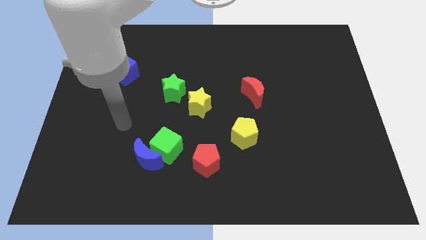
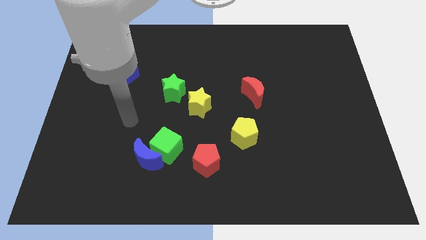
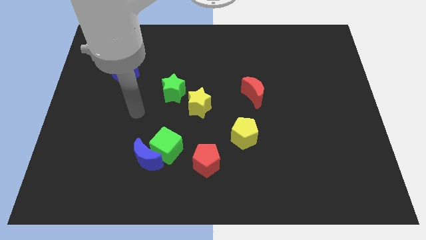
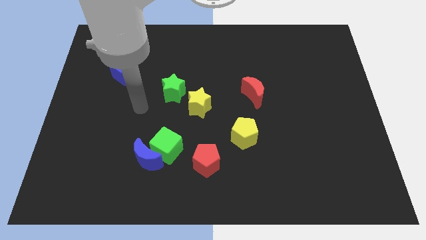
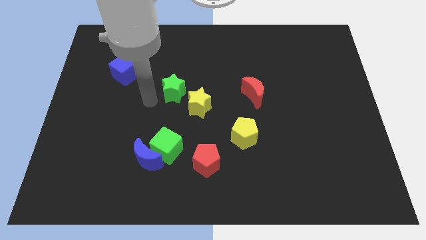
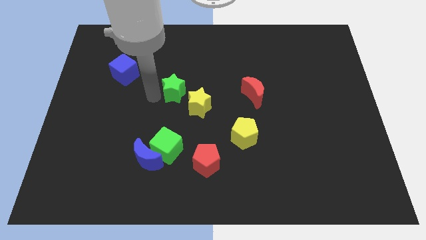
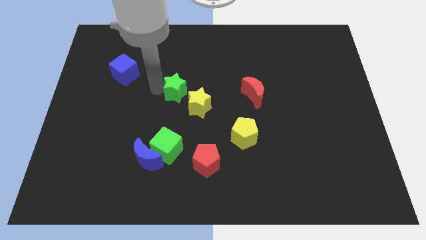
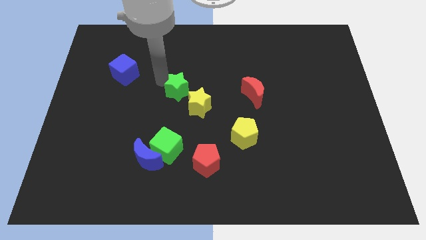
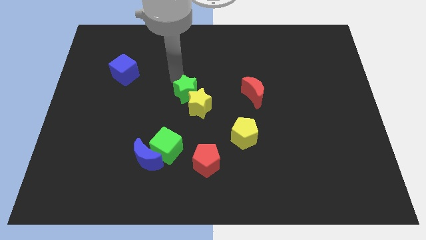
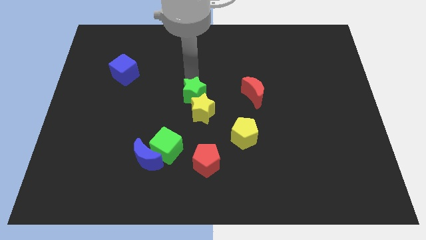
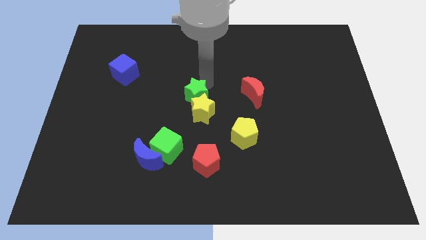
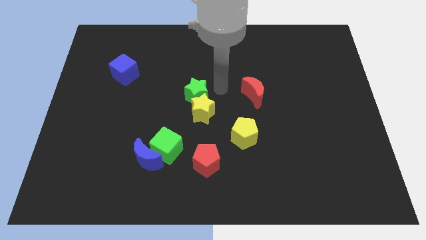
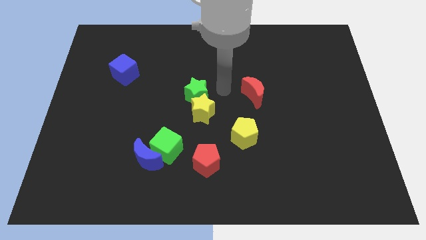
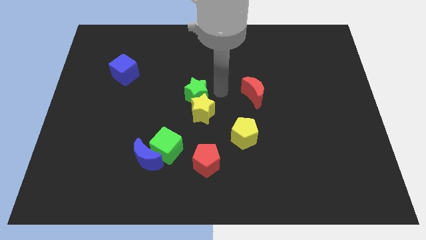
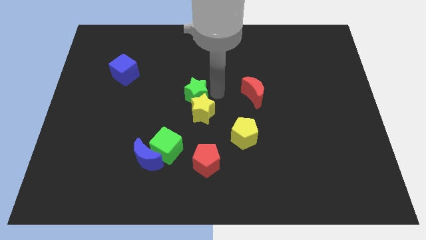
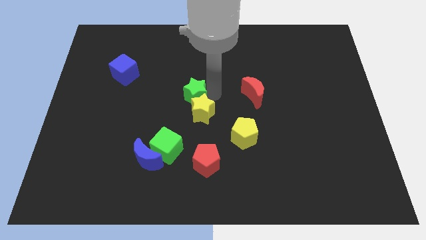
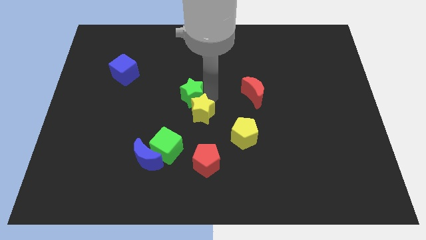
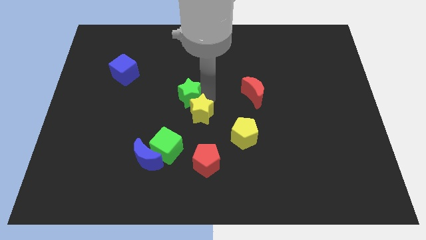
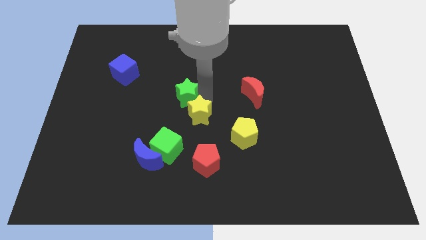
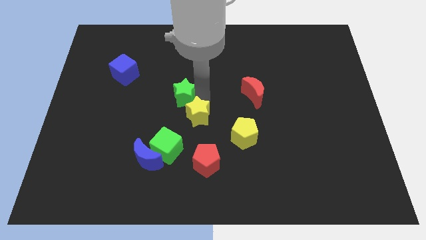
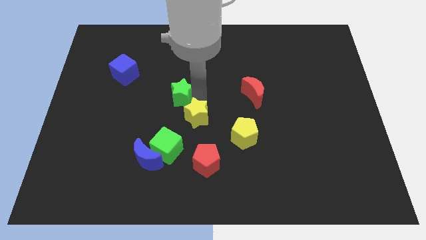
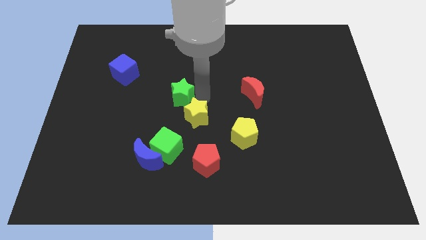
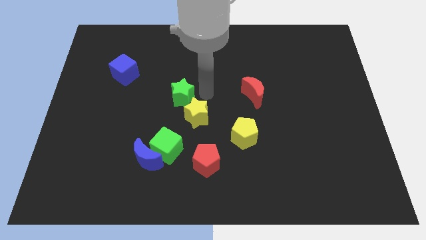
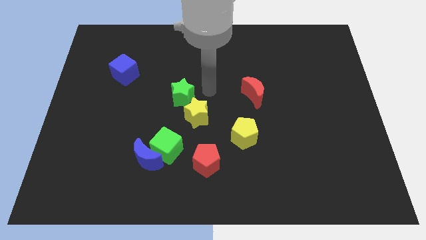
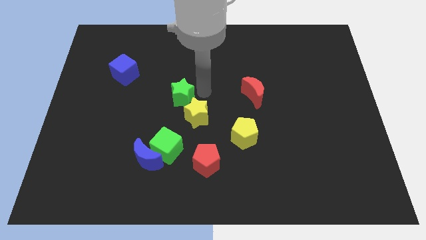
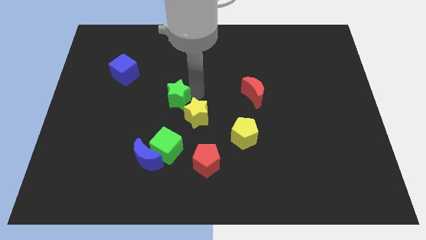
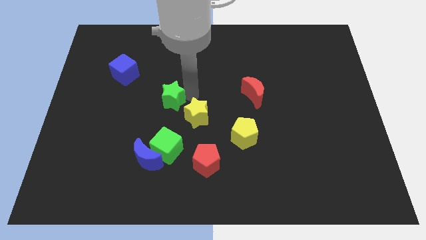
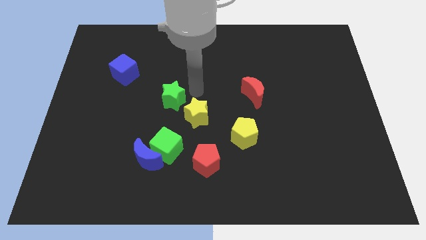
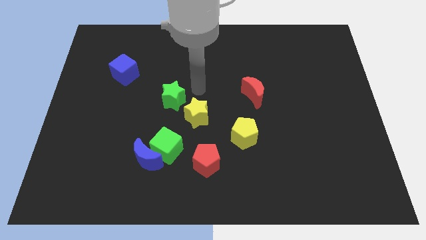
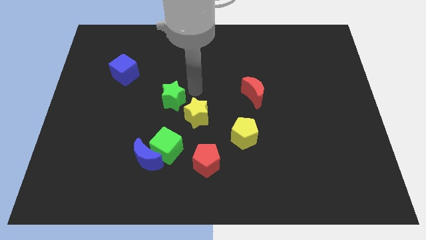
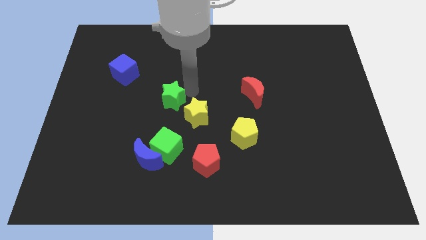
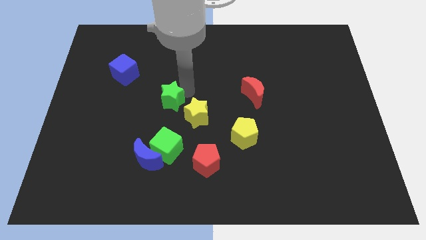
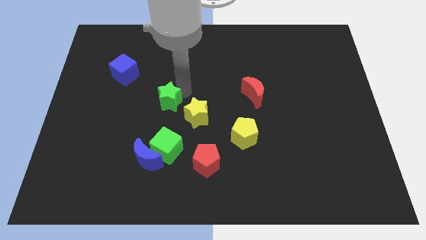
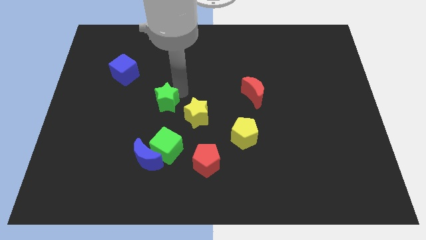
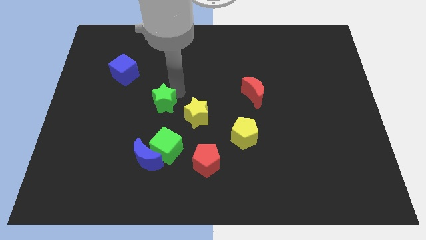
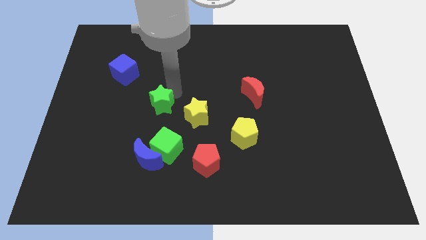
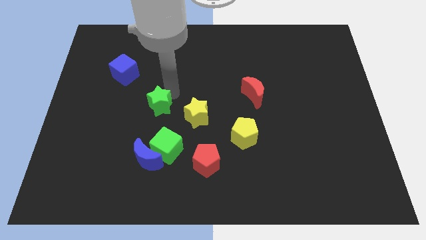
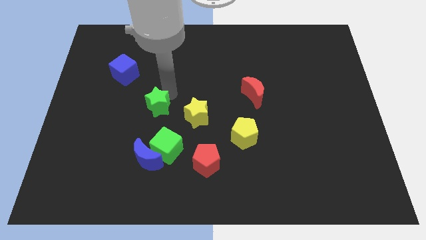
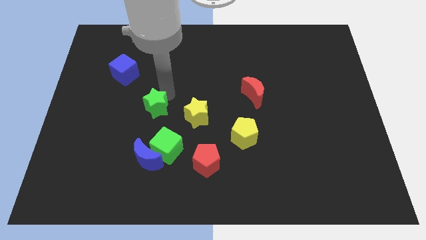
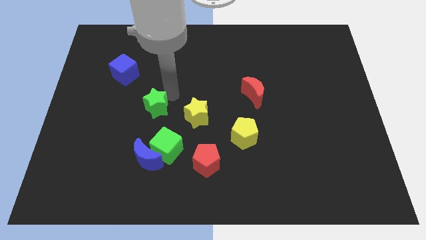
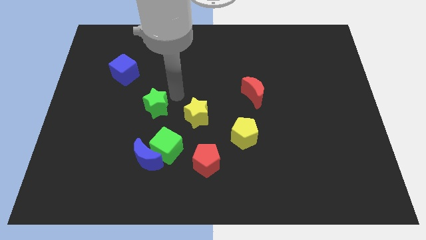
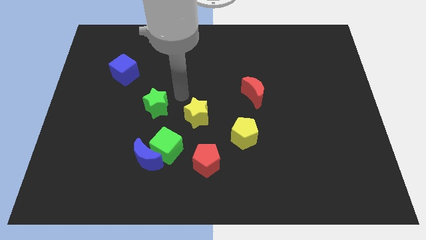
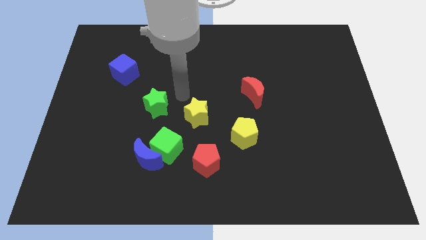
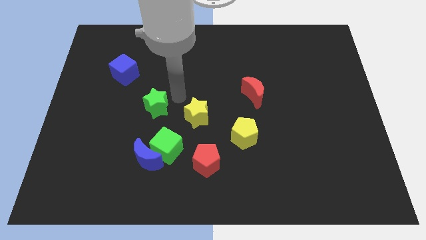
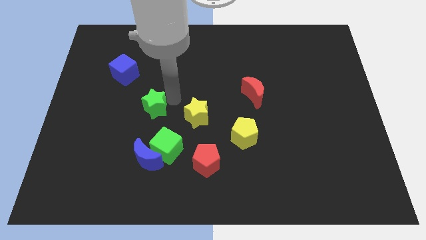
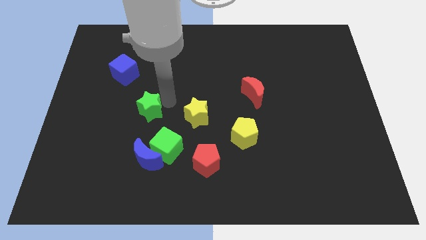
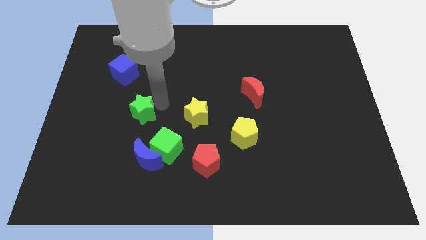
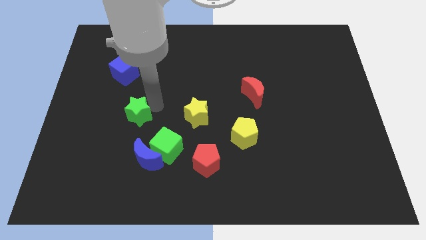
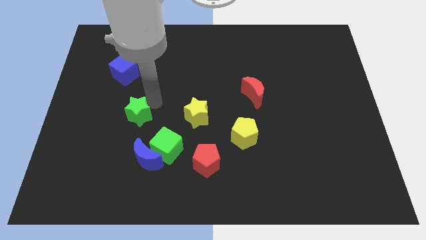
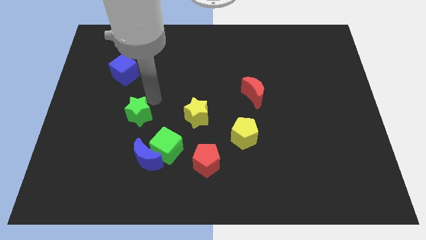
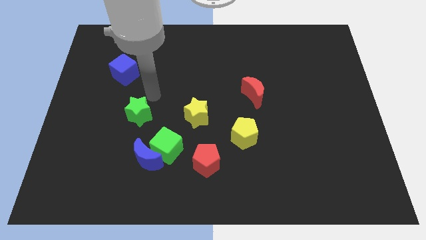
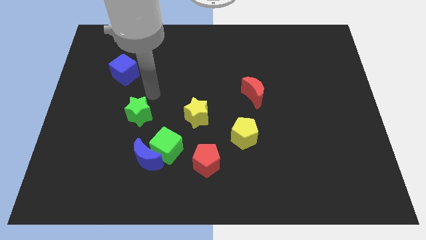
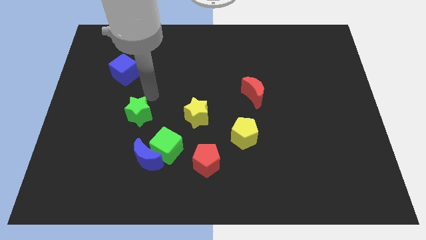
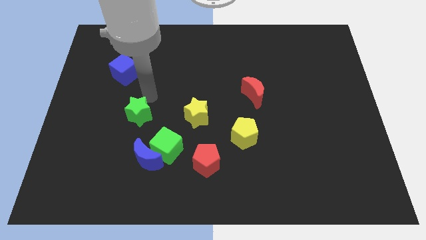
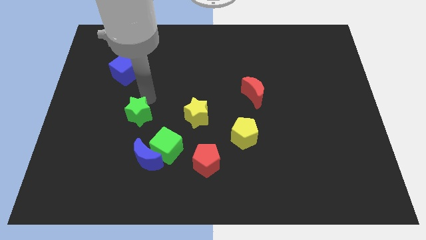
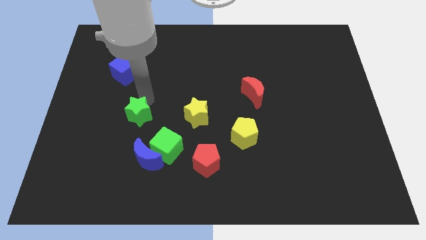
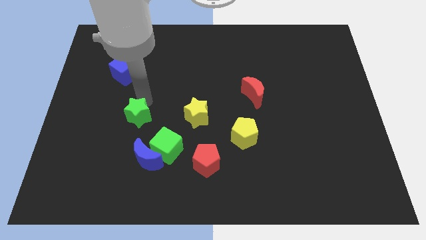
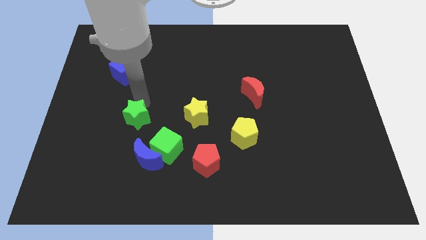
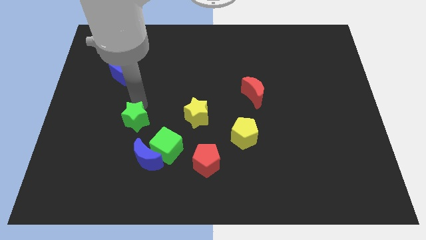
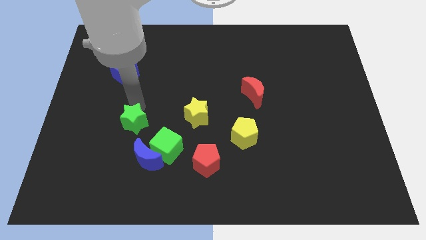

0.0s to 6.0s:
slide the green star to the top left side of the blue moon

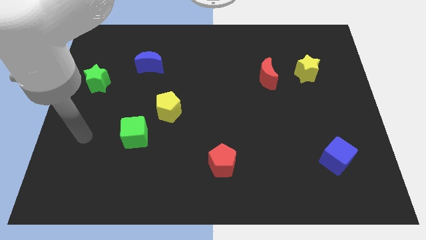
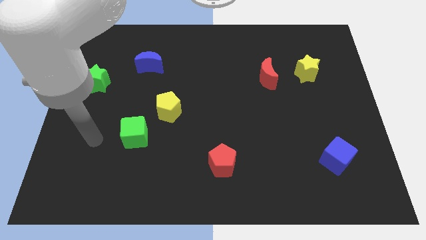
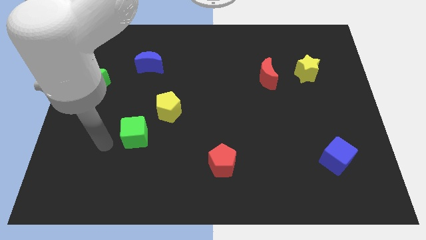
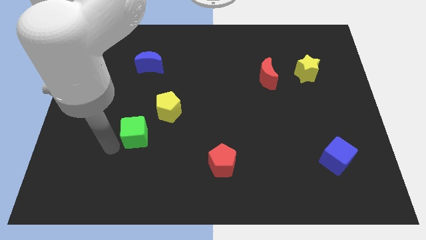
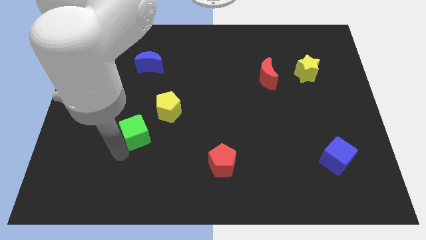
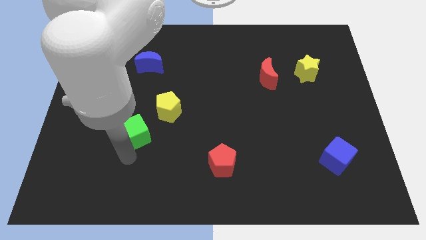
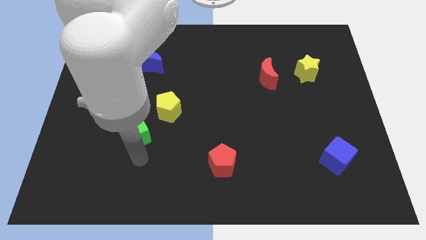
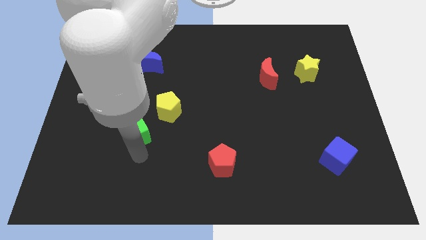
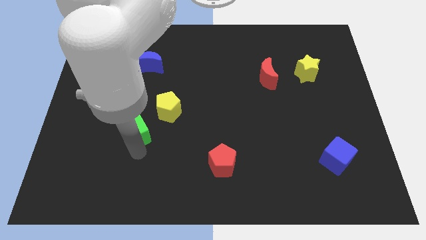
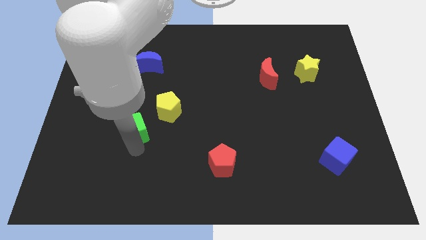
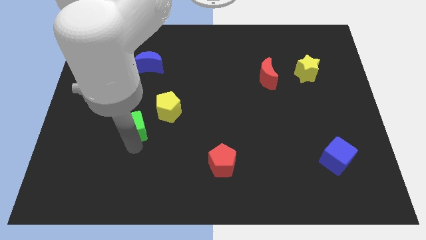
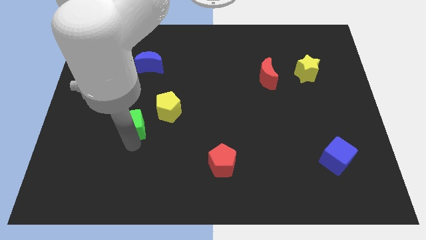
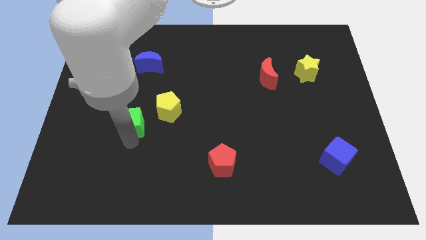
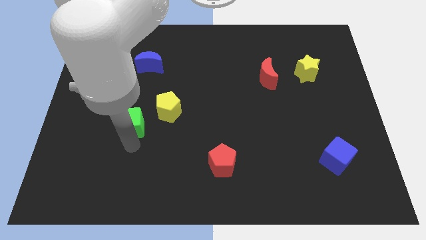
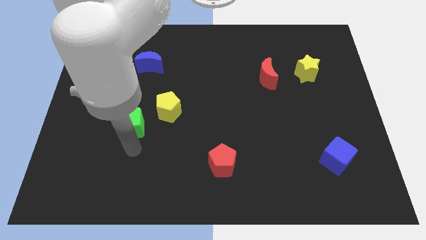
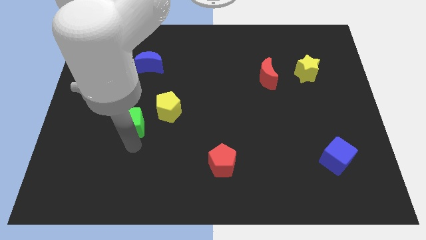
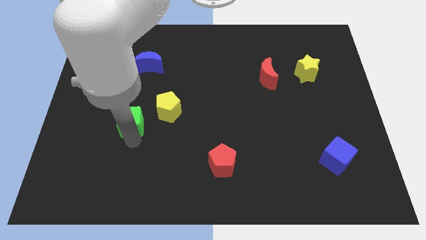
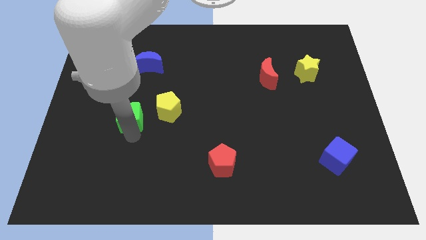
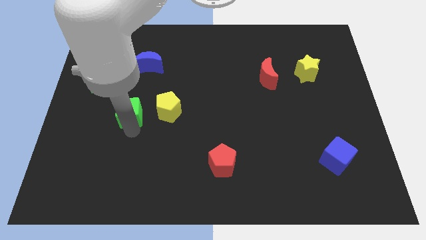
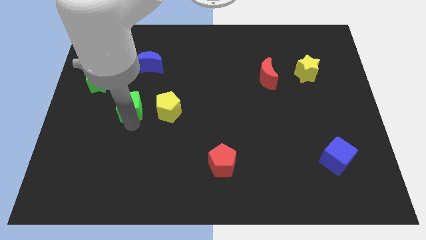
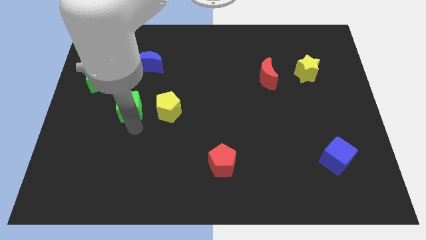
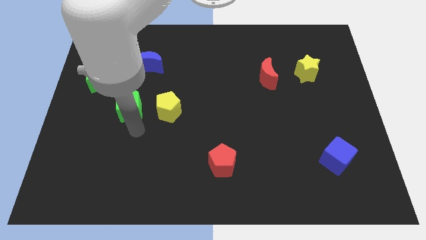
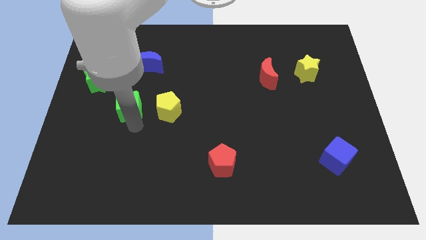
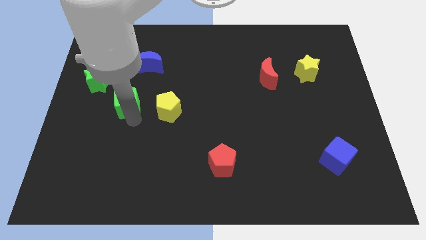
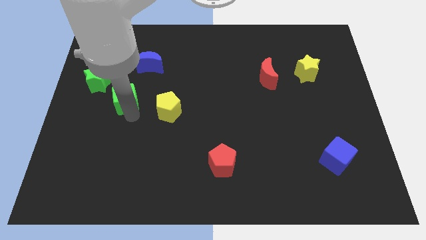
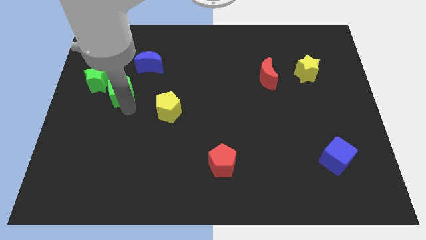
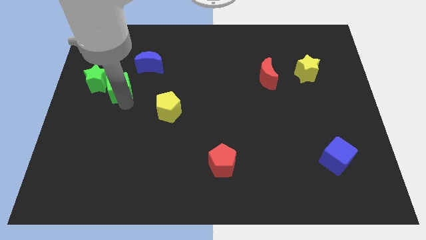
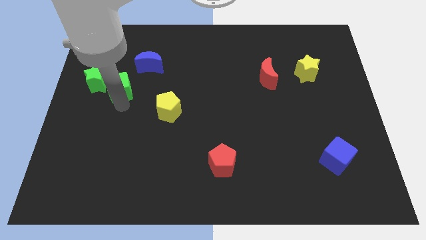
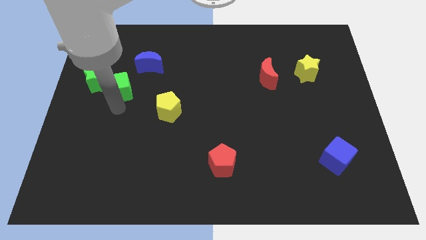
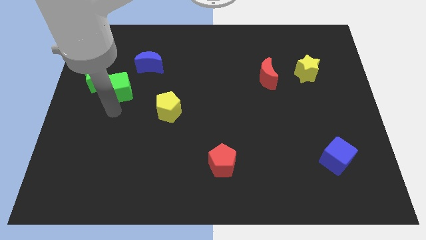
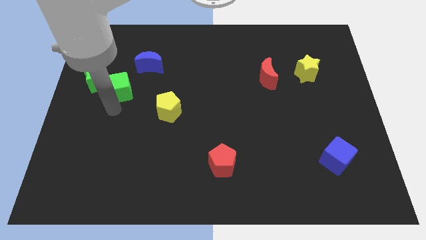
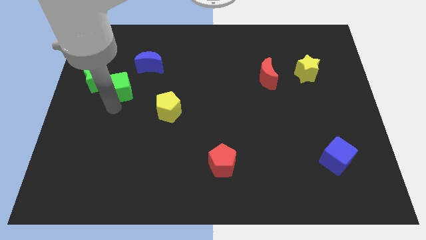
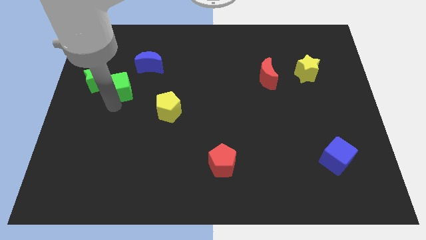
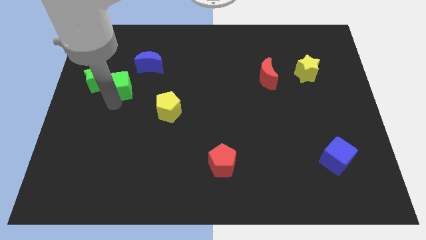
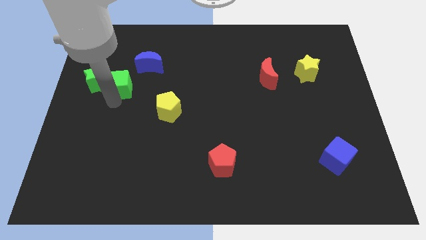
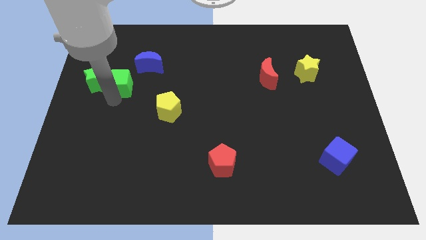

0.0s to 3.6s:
push the green cube to the top right of the green star
